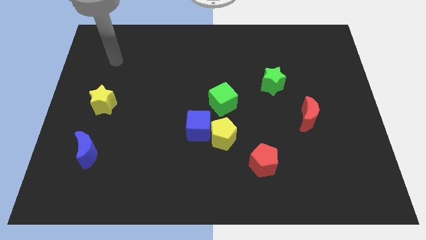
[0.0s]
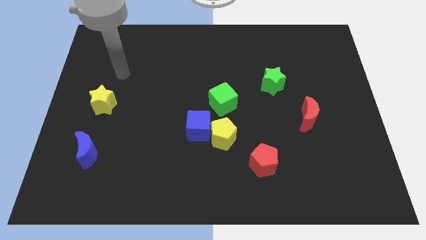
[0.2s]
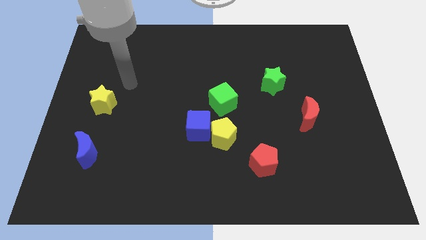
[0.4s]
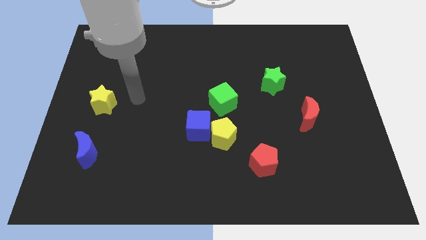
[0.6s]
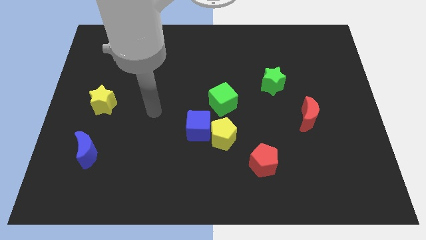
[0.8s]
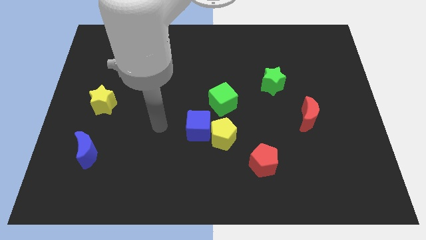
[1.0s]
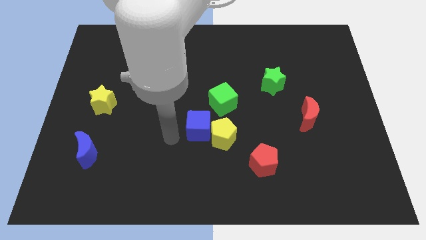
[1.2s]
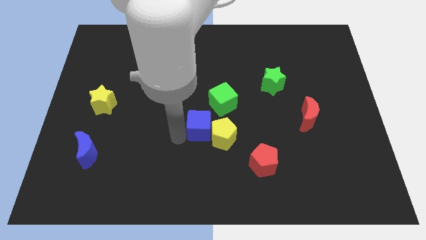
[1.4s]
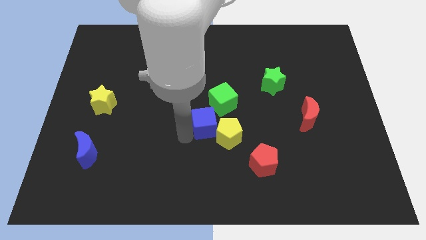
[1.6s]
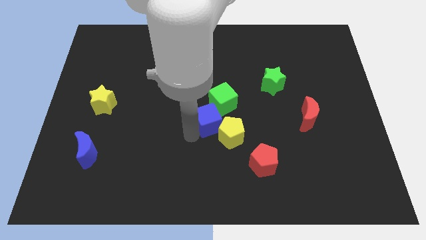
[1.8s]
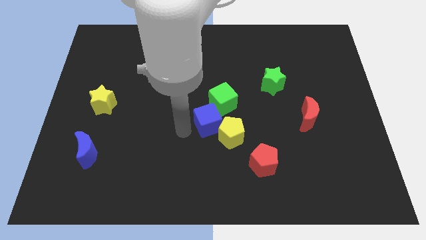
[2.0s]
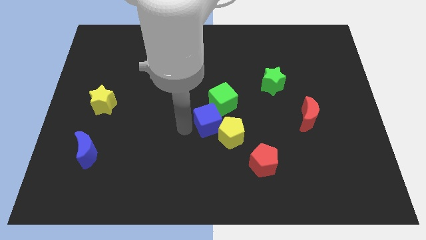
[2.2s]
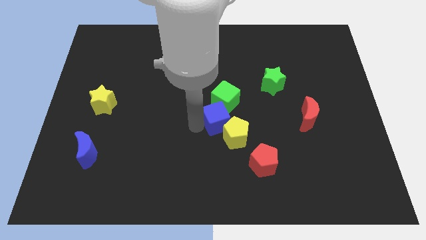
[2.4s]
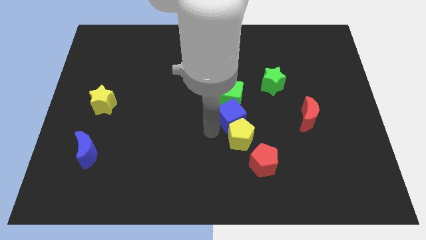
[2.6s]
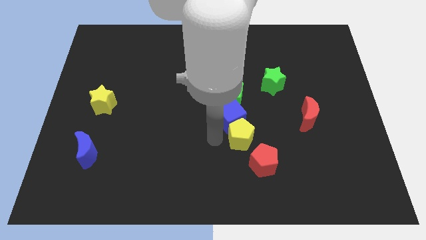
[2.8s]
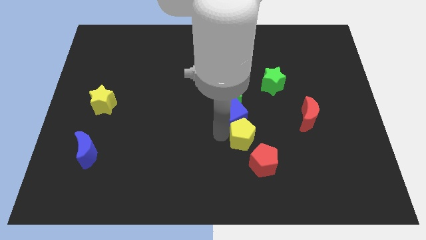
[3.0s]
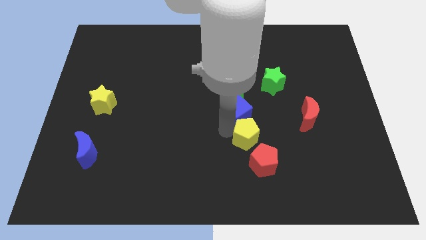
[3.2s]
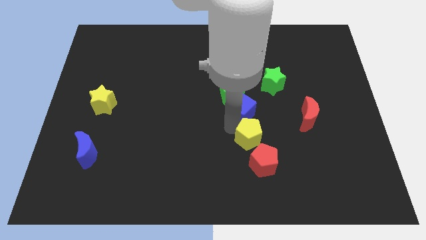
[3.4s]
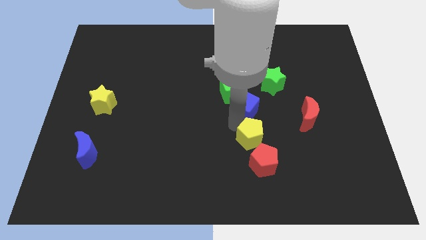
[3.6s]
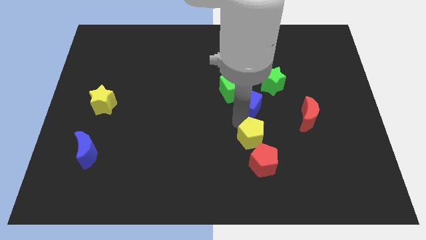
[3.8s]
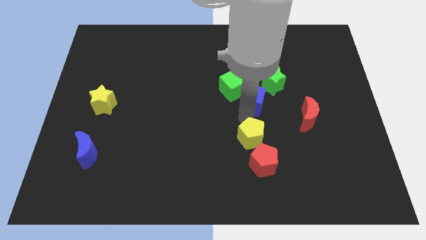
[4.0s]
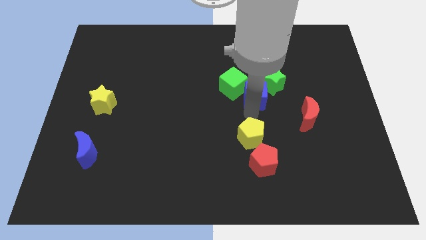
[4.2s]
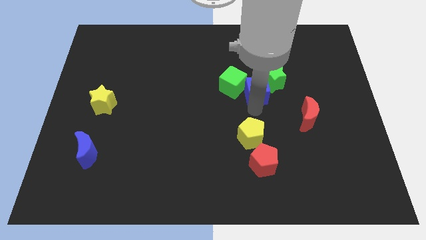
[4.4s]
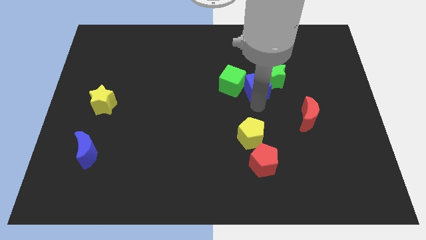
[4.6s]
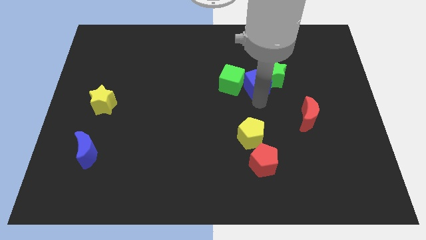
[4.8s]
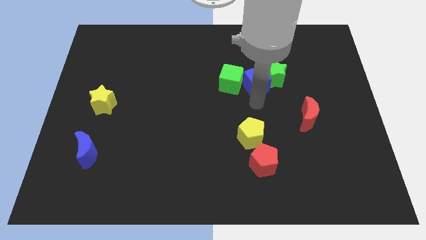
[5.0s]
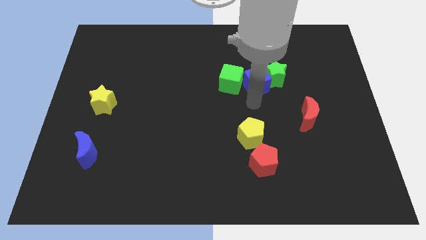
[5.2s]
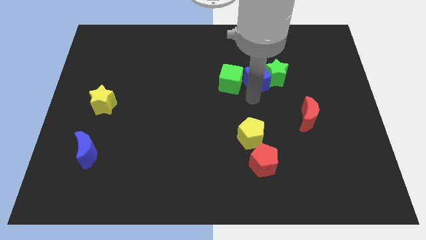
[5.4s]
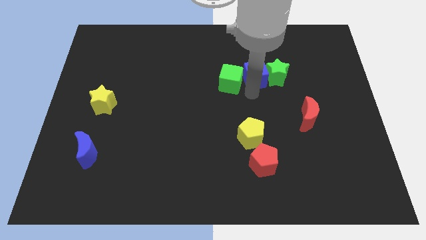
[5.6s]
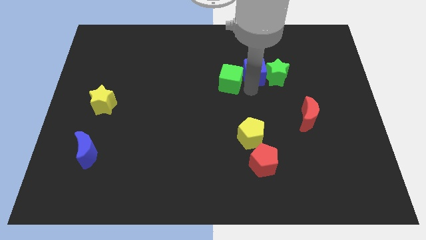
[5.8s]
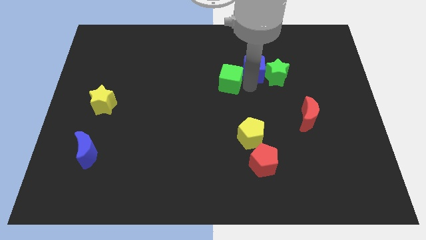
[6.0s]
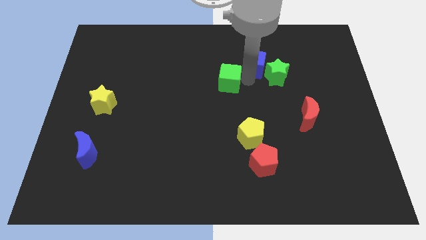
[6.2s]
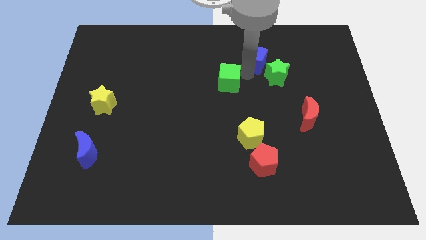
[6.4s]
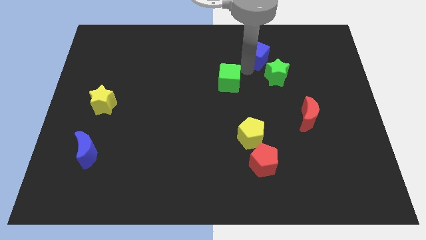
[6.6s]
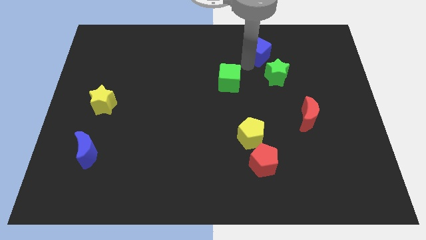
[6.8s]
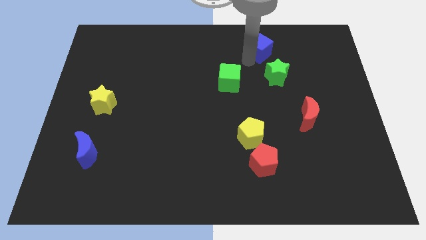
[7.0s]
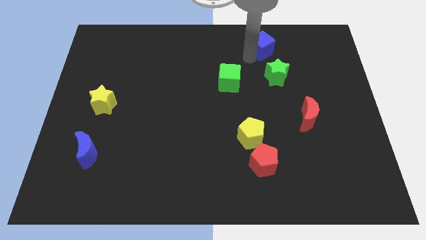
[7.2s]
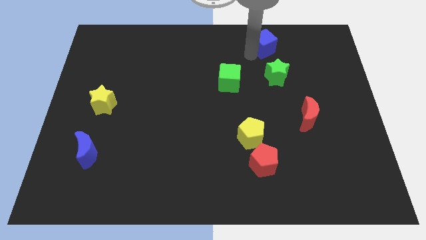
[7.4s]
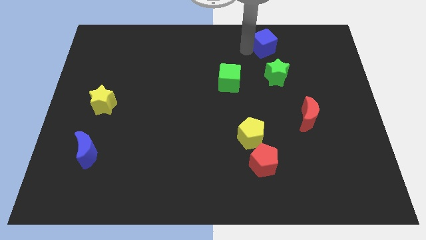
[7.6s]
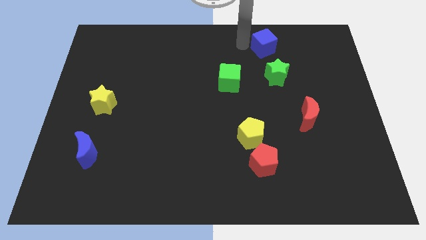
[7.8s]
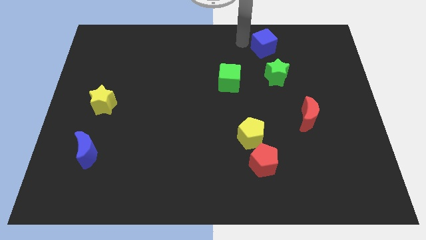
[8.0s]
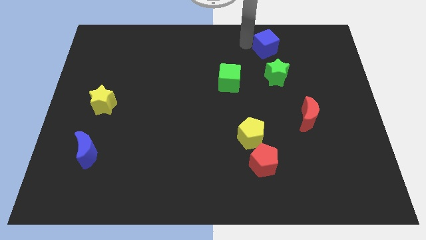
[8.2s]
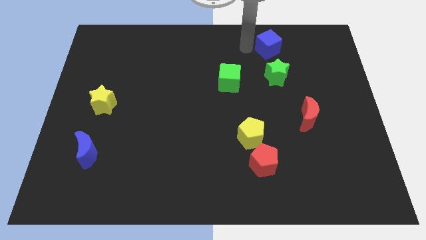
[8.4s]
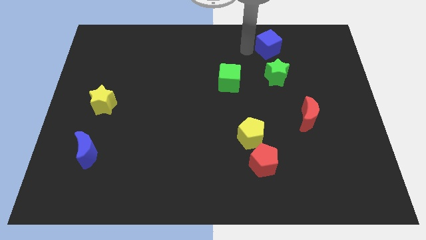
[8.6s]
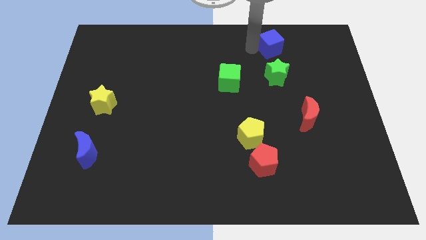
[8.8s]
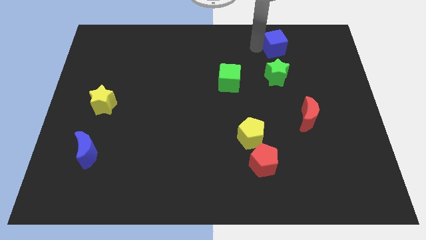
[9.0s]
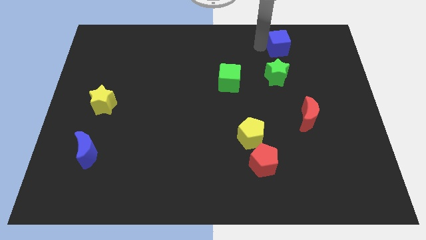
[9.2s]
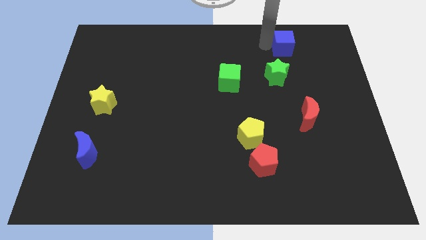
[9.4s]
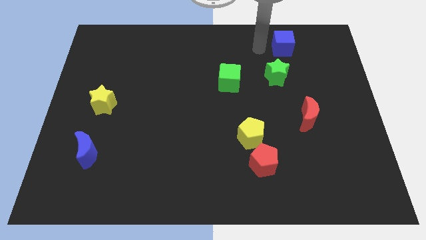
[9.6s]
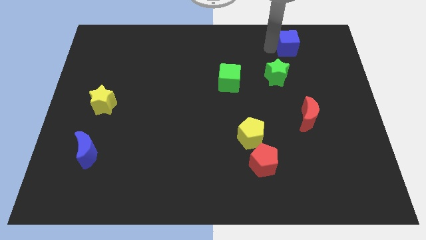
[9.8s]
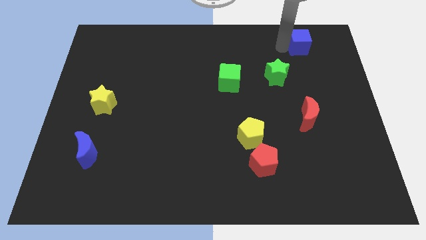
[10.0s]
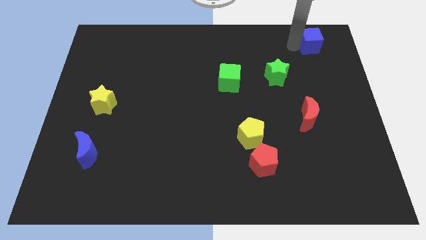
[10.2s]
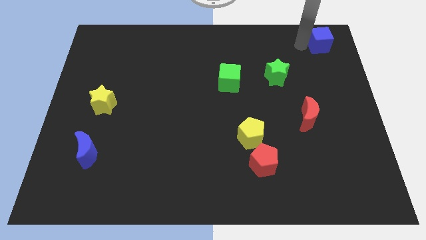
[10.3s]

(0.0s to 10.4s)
push the blue cube to the top right

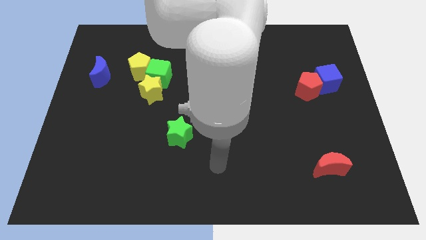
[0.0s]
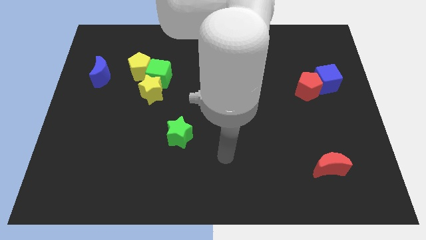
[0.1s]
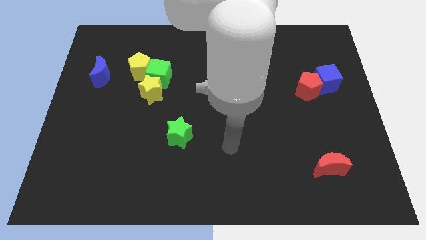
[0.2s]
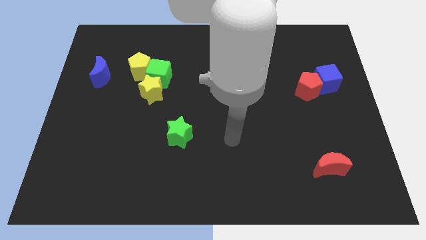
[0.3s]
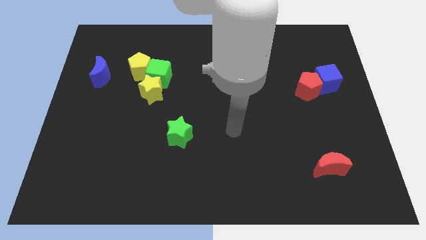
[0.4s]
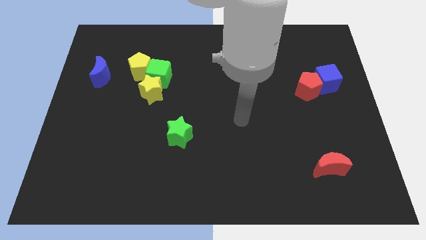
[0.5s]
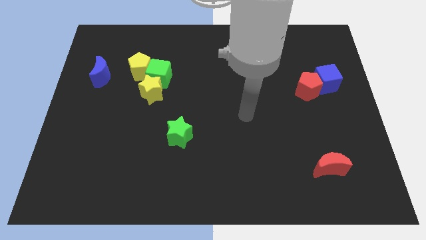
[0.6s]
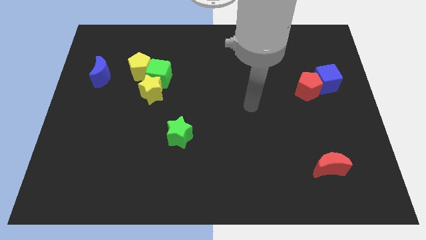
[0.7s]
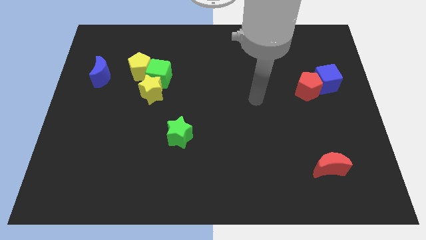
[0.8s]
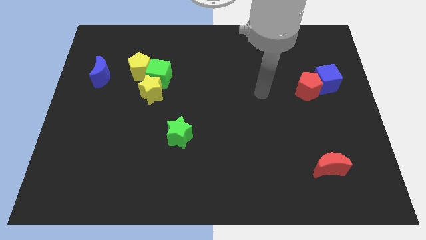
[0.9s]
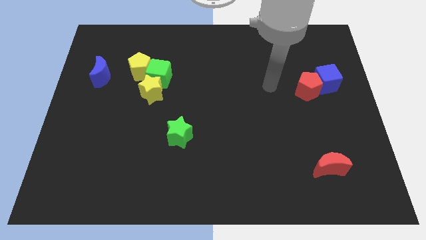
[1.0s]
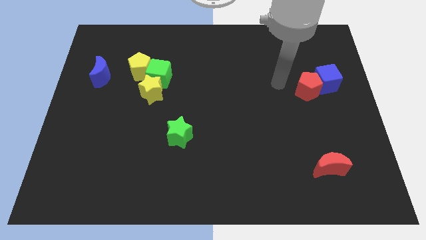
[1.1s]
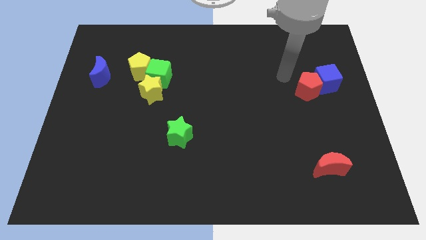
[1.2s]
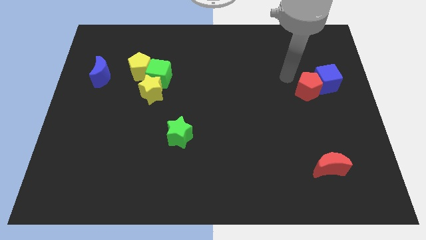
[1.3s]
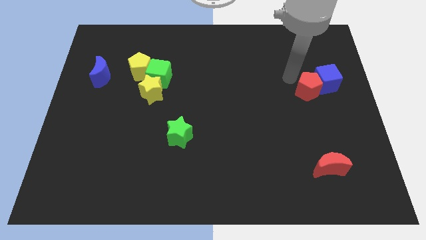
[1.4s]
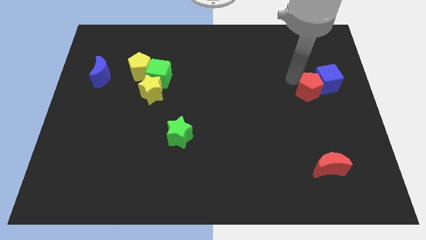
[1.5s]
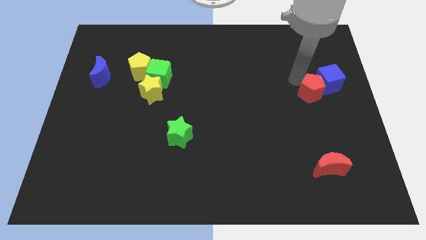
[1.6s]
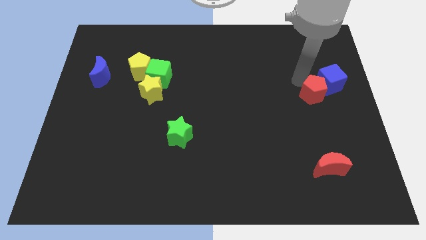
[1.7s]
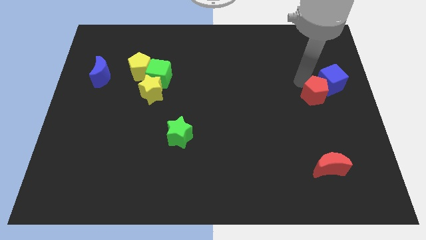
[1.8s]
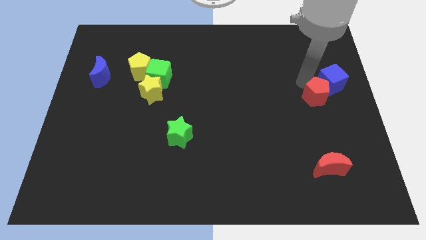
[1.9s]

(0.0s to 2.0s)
slide the red pentagon to the right side

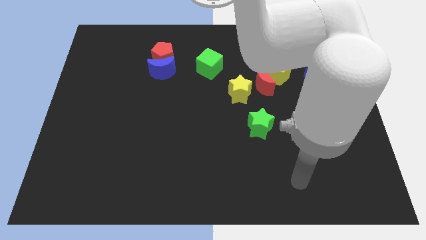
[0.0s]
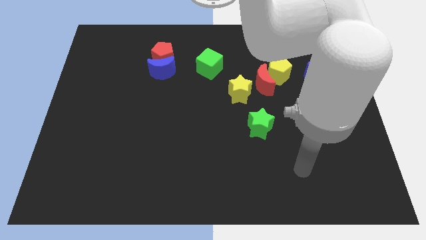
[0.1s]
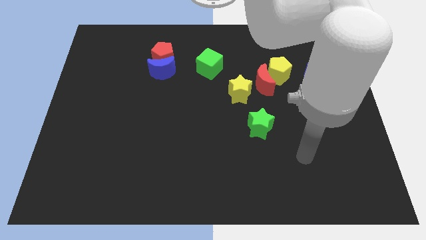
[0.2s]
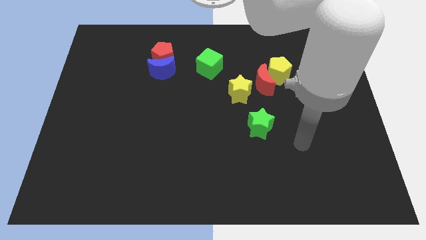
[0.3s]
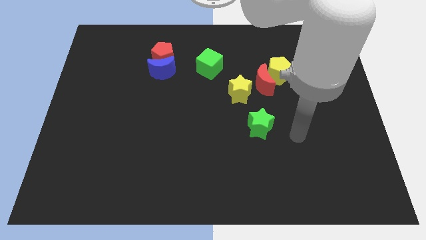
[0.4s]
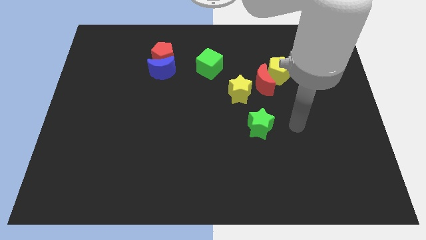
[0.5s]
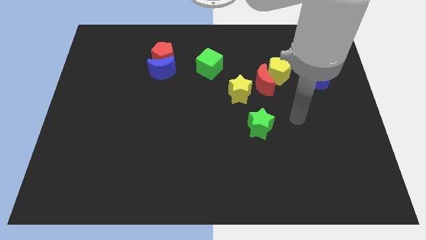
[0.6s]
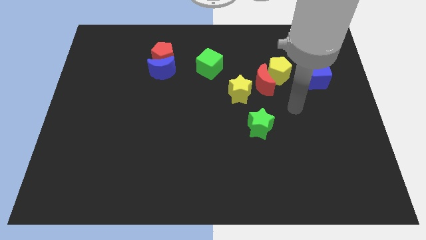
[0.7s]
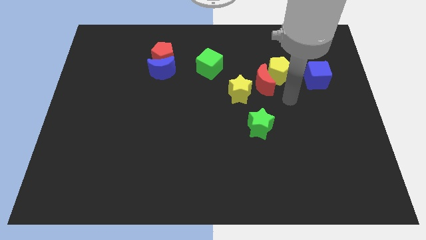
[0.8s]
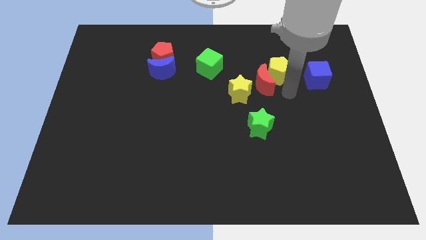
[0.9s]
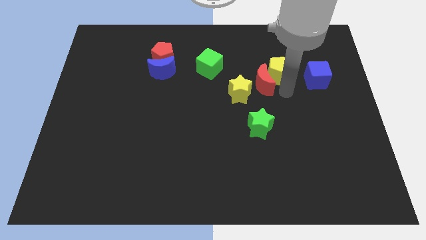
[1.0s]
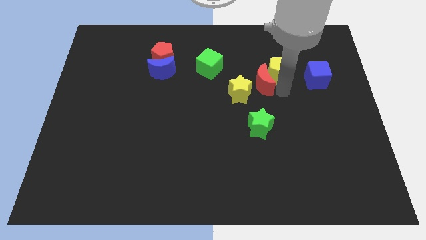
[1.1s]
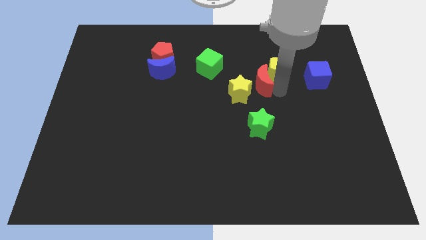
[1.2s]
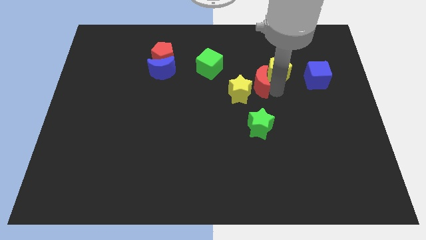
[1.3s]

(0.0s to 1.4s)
slide the red moon to the middle
